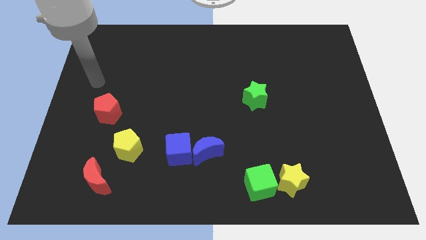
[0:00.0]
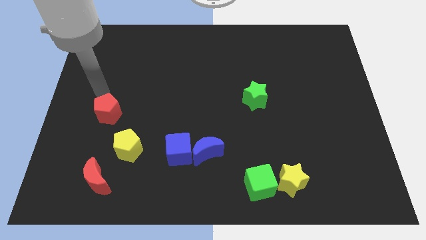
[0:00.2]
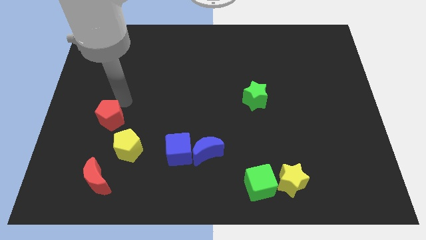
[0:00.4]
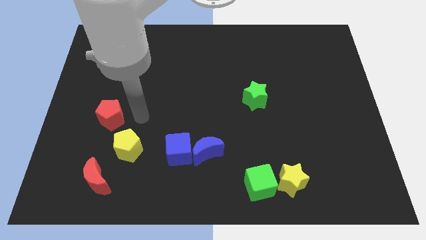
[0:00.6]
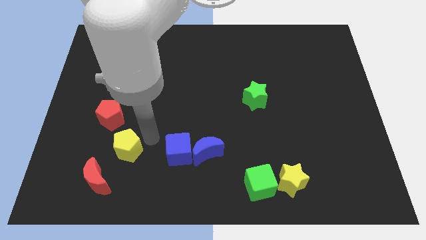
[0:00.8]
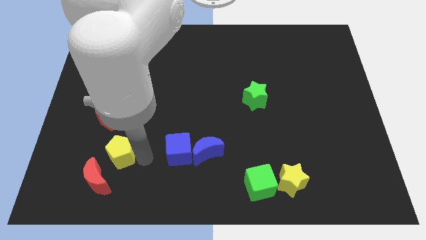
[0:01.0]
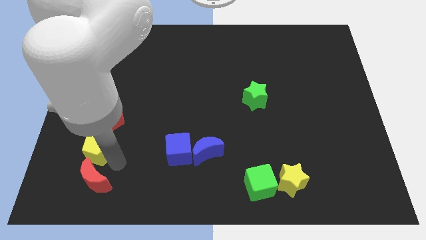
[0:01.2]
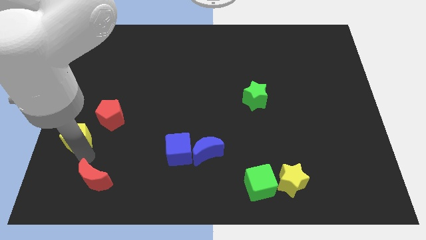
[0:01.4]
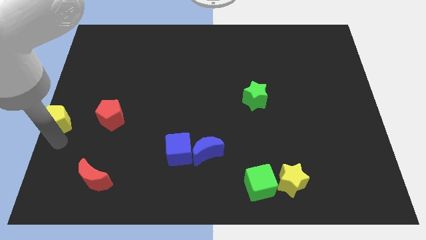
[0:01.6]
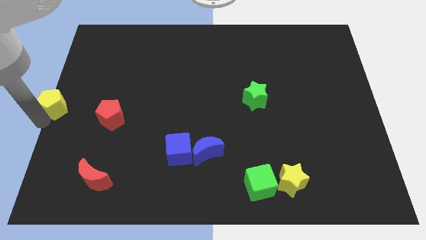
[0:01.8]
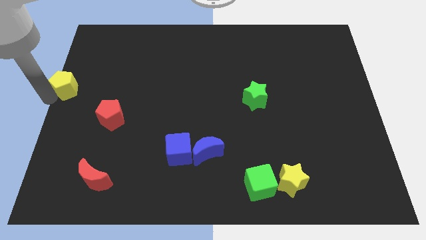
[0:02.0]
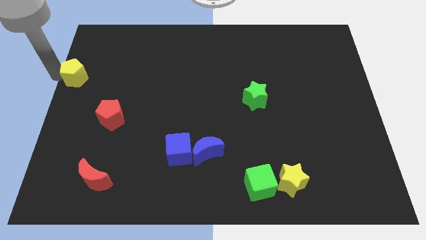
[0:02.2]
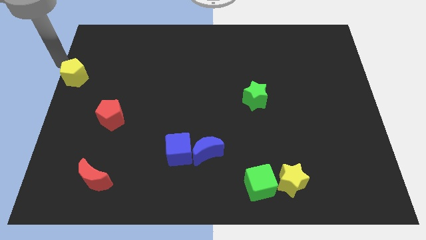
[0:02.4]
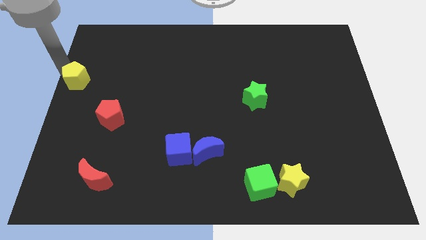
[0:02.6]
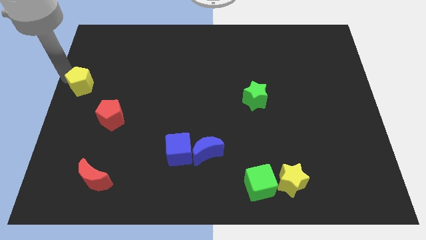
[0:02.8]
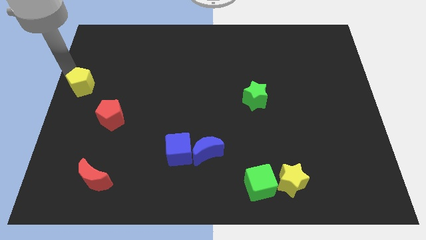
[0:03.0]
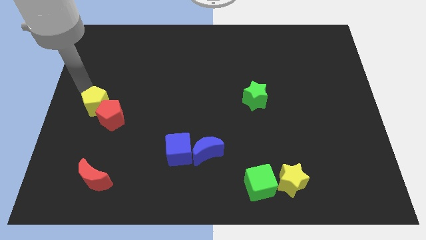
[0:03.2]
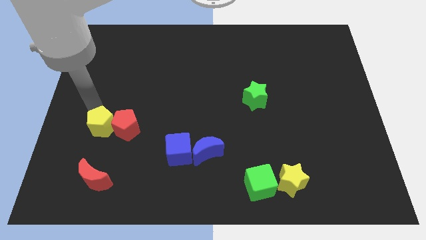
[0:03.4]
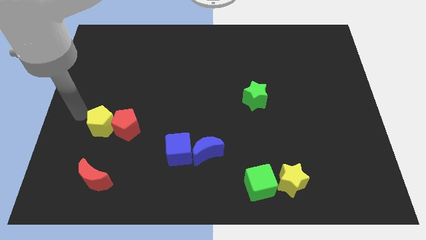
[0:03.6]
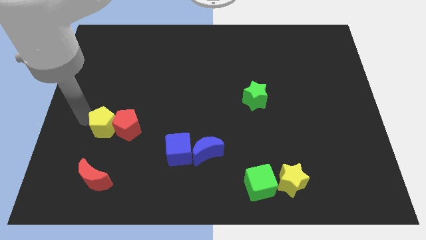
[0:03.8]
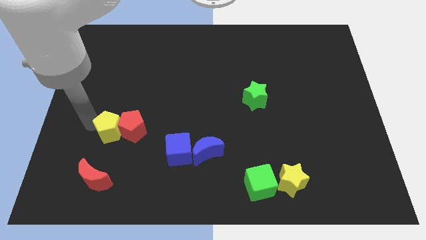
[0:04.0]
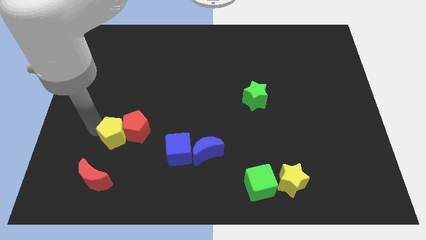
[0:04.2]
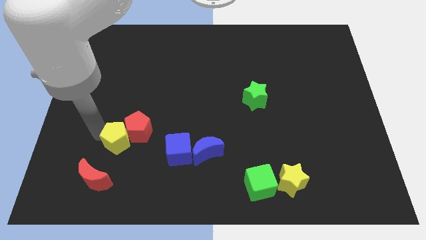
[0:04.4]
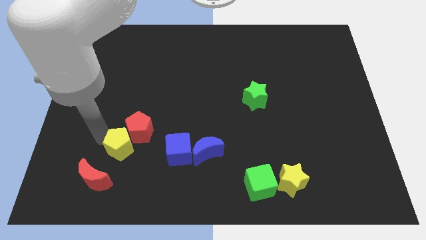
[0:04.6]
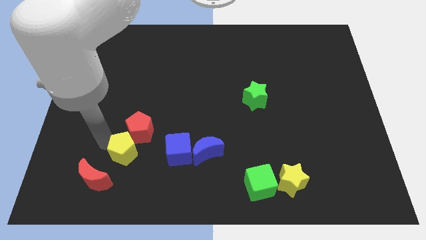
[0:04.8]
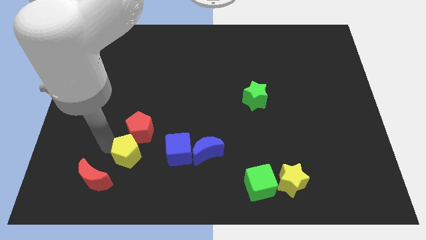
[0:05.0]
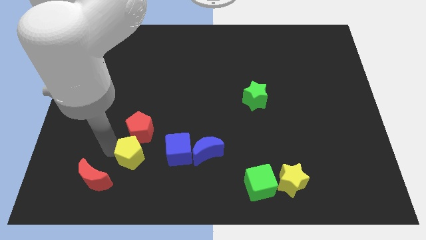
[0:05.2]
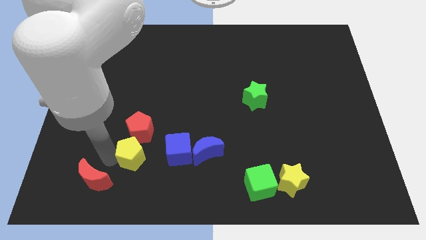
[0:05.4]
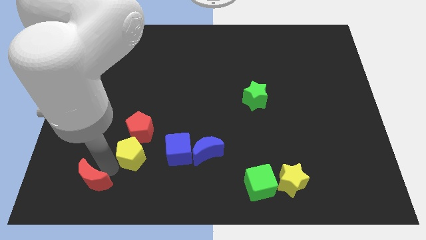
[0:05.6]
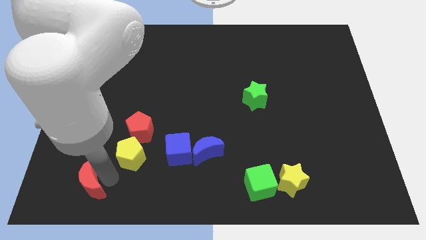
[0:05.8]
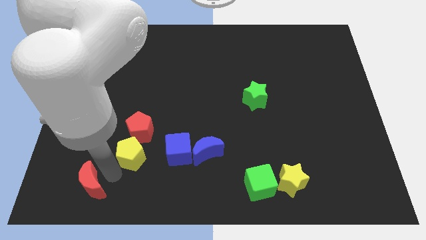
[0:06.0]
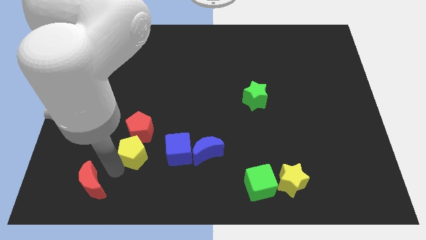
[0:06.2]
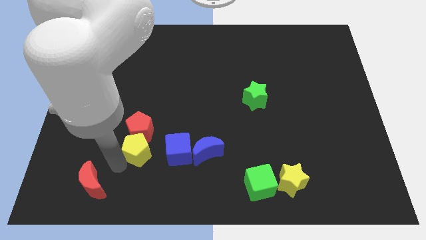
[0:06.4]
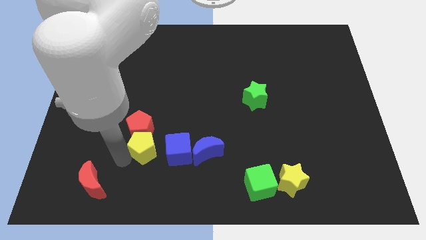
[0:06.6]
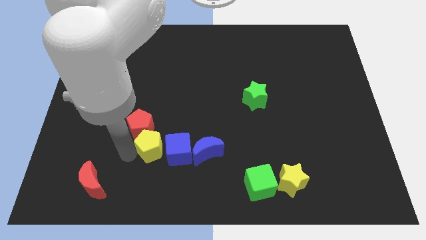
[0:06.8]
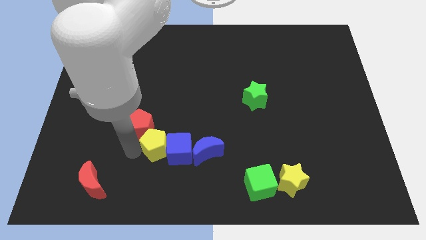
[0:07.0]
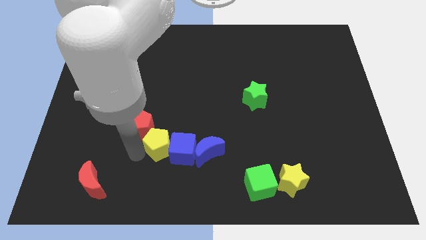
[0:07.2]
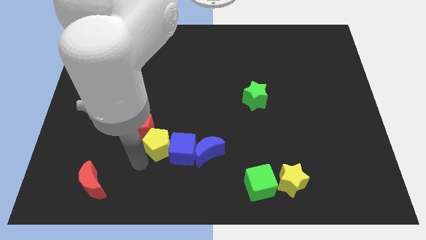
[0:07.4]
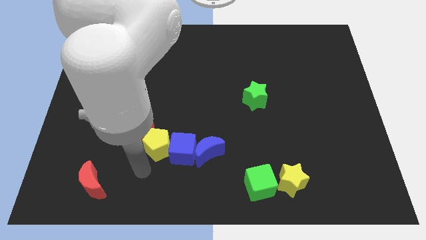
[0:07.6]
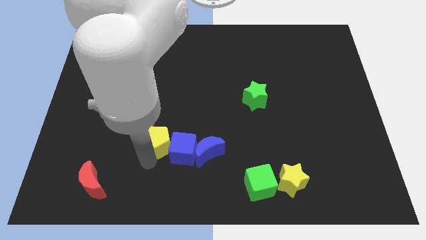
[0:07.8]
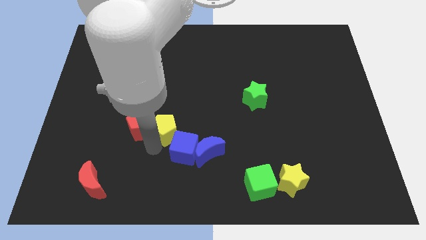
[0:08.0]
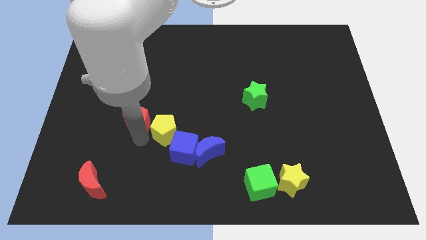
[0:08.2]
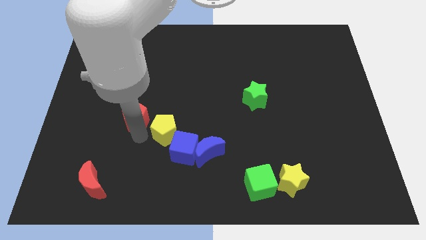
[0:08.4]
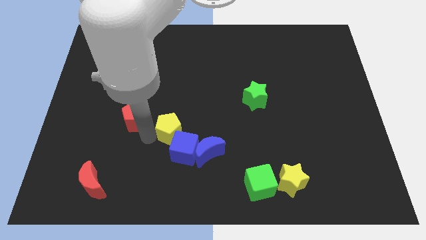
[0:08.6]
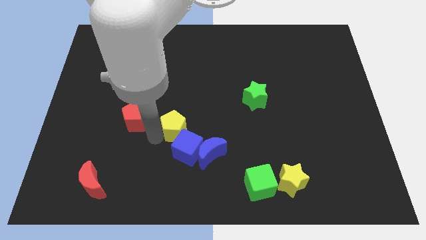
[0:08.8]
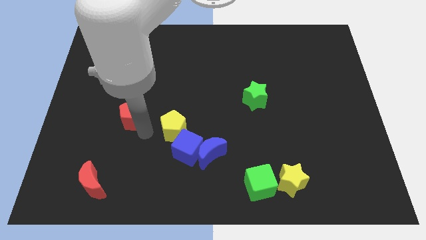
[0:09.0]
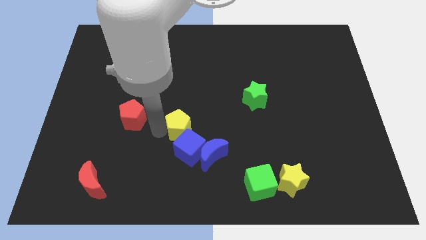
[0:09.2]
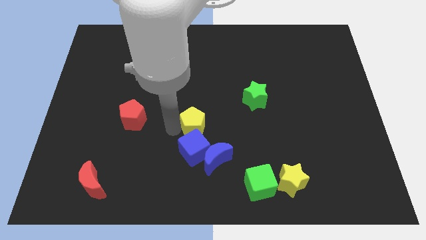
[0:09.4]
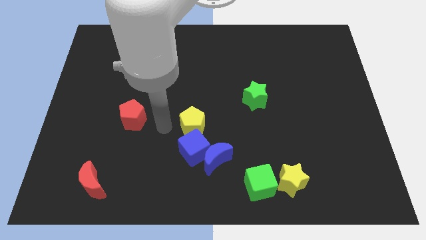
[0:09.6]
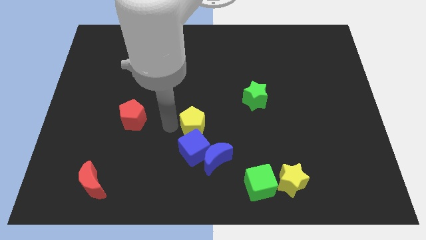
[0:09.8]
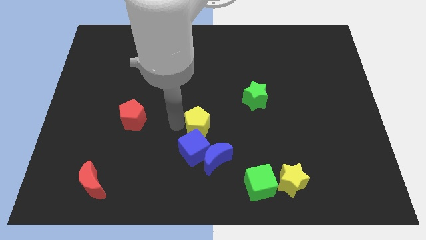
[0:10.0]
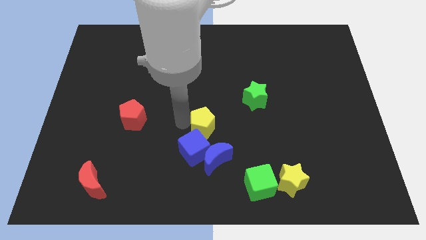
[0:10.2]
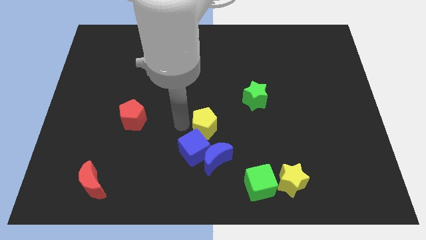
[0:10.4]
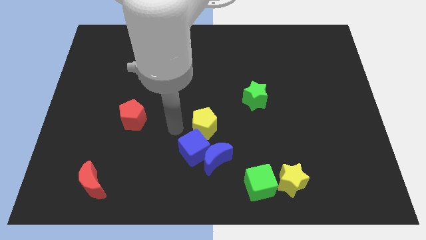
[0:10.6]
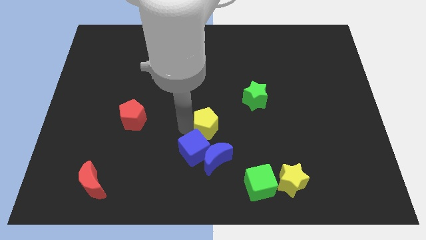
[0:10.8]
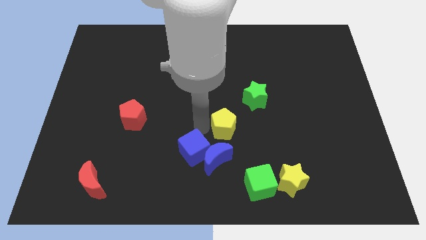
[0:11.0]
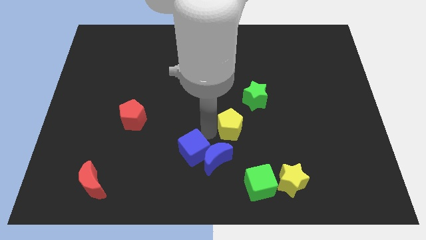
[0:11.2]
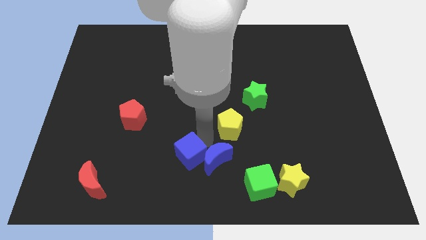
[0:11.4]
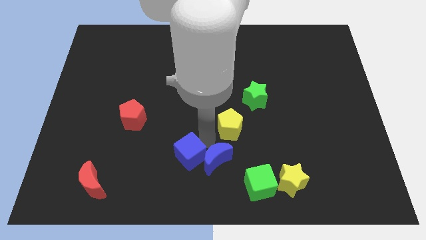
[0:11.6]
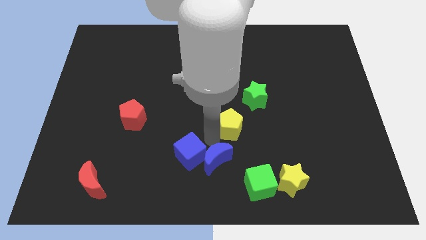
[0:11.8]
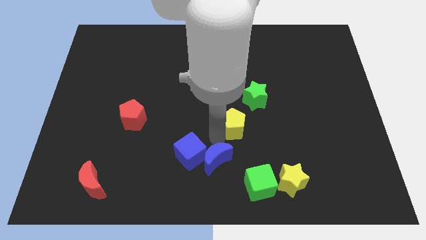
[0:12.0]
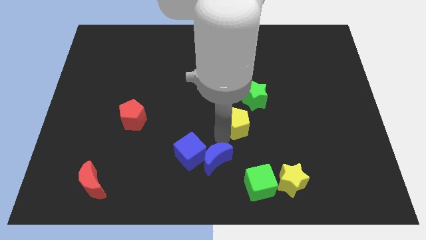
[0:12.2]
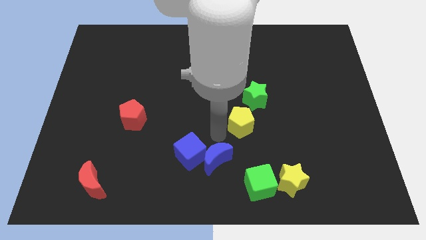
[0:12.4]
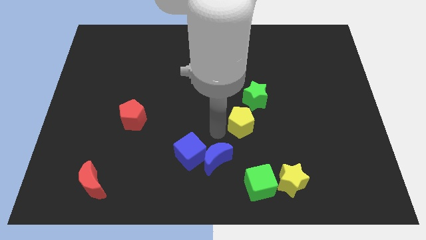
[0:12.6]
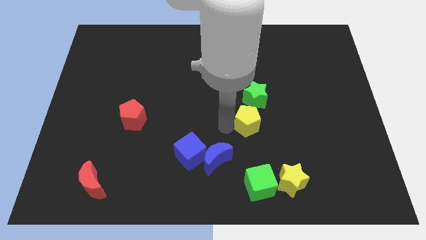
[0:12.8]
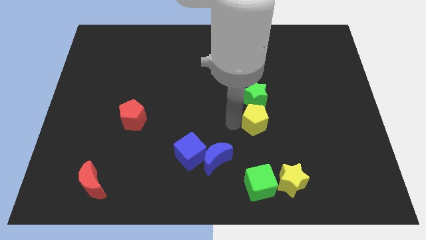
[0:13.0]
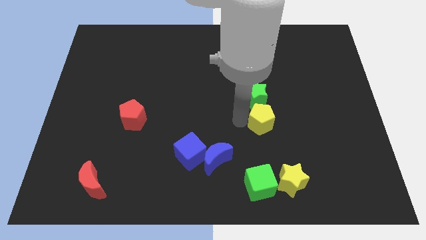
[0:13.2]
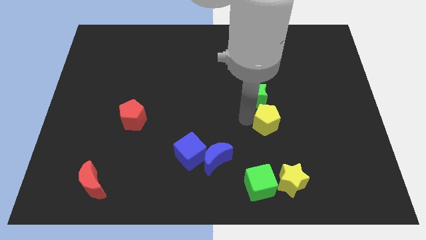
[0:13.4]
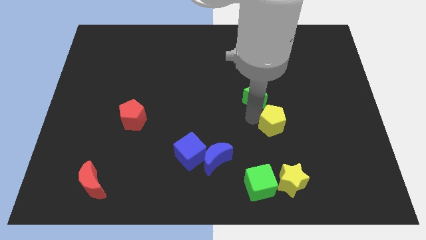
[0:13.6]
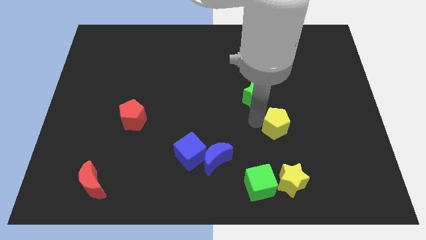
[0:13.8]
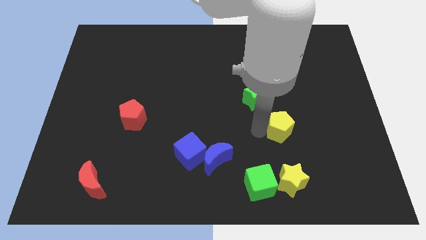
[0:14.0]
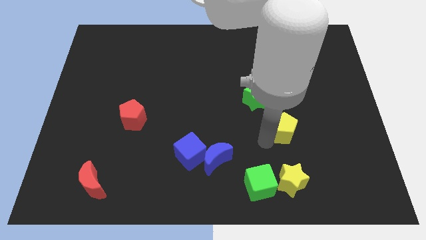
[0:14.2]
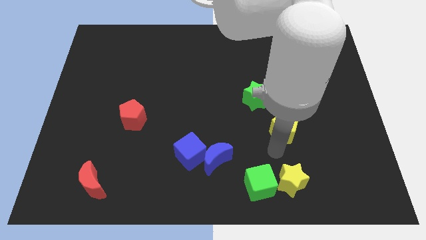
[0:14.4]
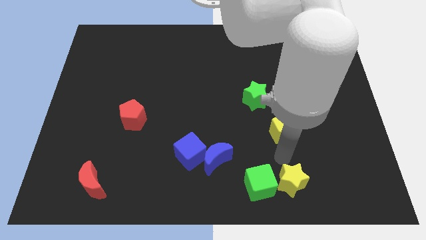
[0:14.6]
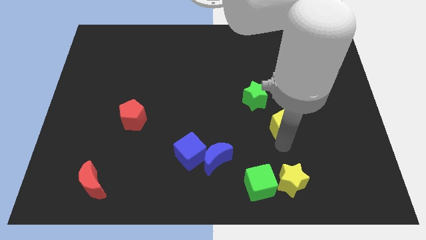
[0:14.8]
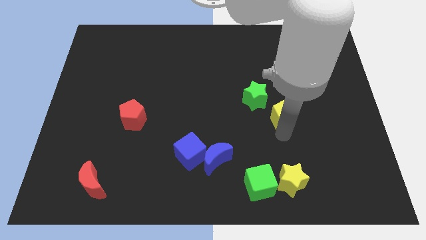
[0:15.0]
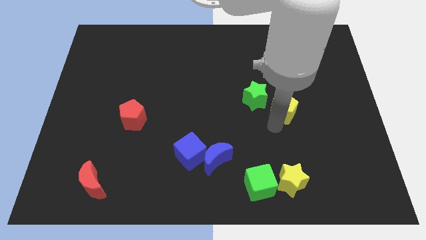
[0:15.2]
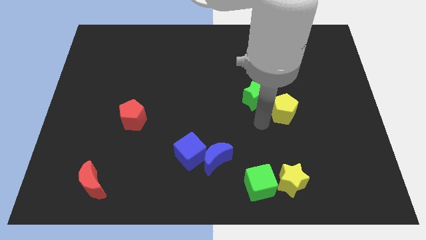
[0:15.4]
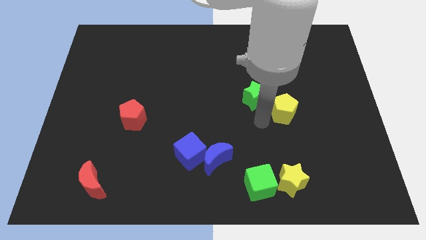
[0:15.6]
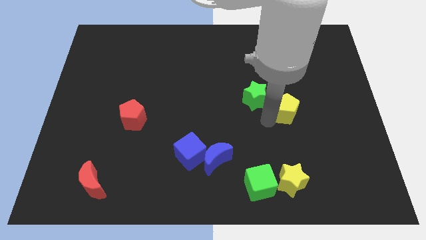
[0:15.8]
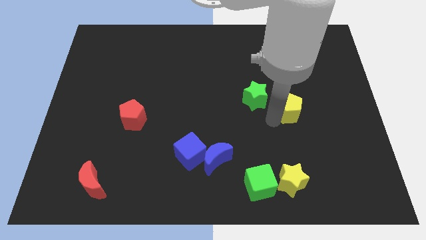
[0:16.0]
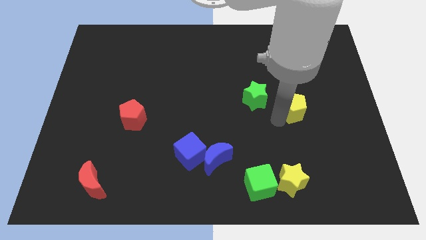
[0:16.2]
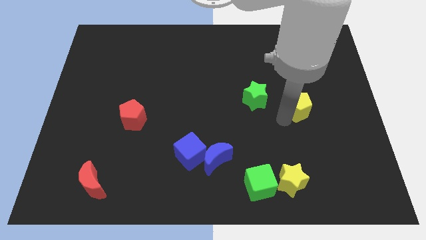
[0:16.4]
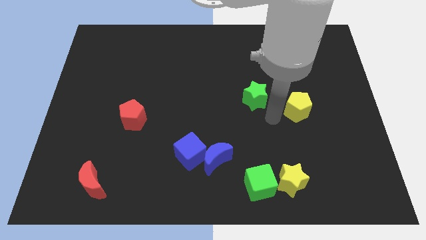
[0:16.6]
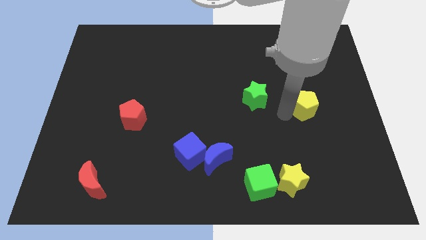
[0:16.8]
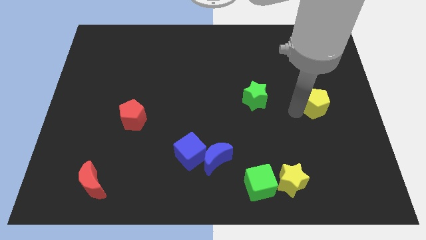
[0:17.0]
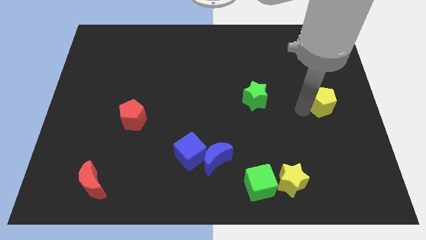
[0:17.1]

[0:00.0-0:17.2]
slide the yellow pentagon to the right side of the board
